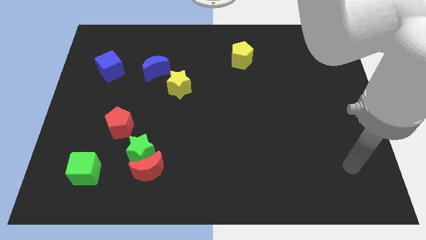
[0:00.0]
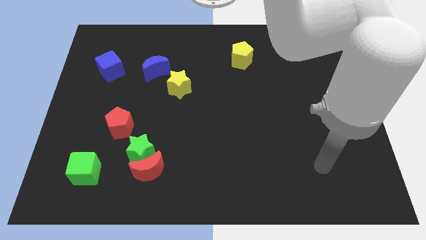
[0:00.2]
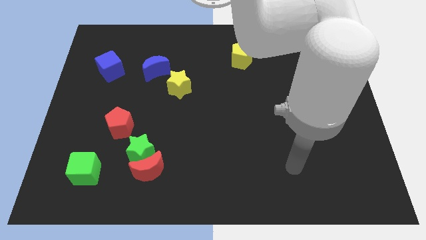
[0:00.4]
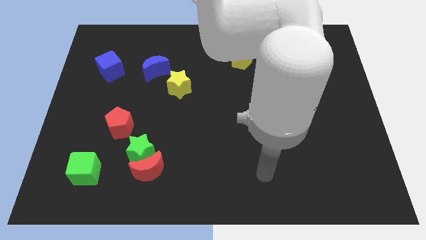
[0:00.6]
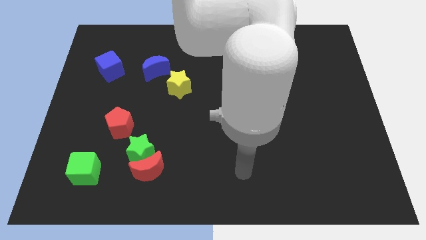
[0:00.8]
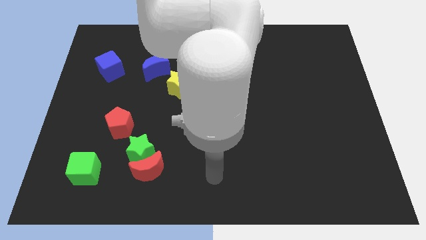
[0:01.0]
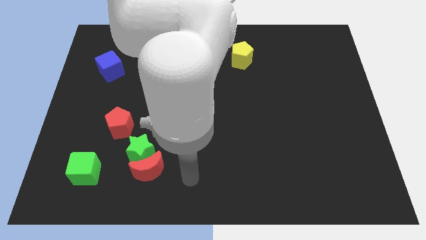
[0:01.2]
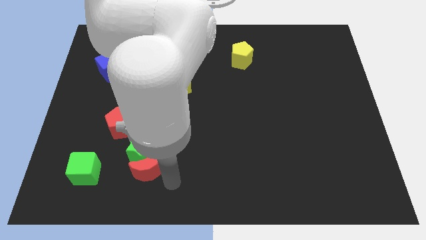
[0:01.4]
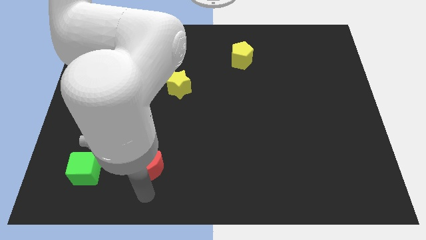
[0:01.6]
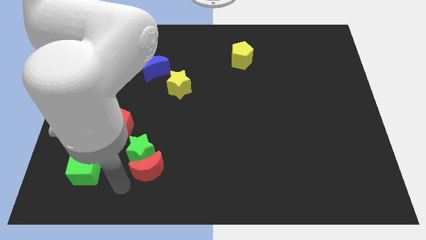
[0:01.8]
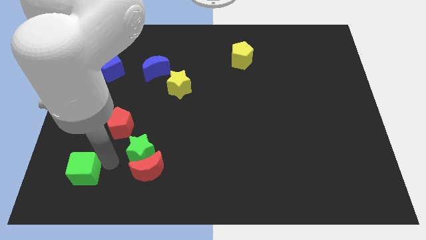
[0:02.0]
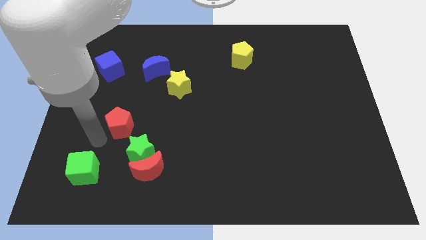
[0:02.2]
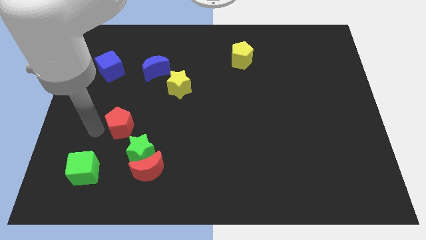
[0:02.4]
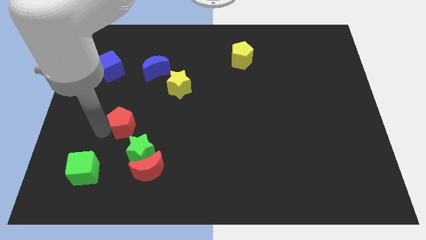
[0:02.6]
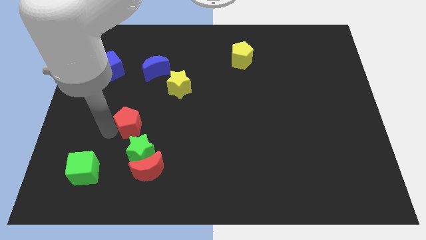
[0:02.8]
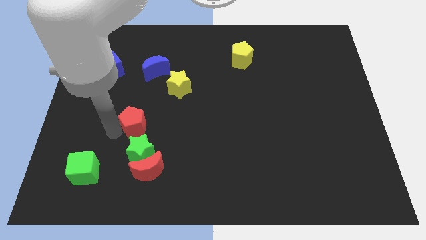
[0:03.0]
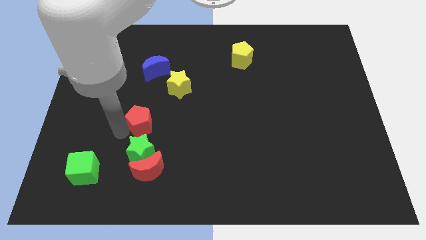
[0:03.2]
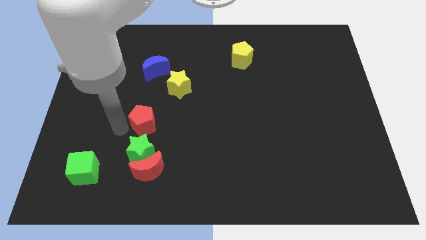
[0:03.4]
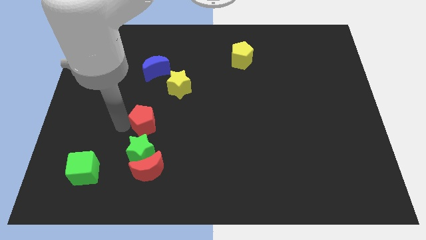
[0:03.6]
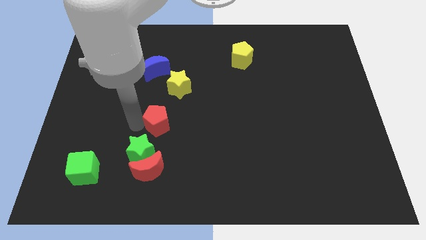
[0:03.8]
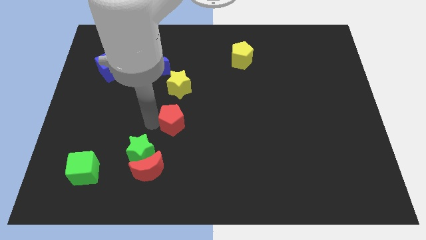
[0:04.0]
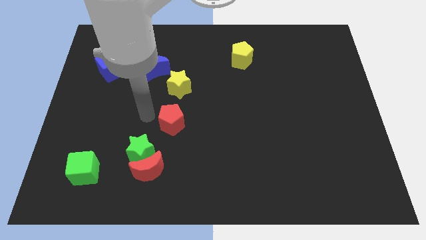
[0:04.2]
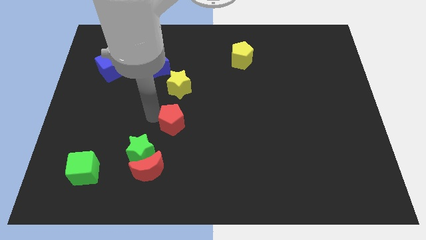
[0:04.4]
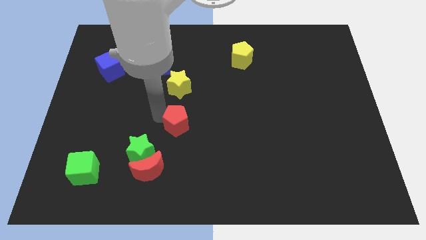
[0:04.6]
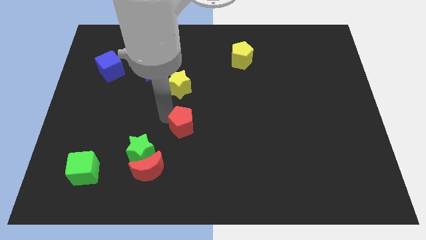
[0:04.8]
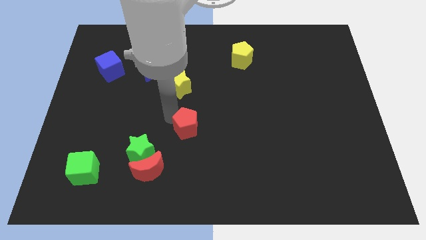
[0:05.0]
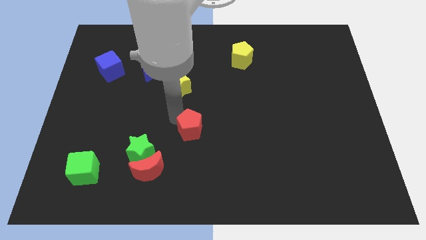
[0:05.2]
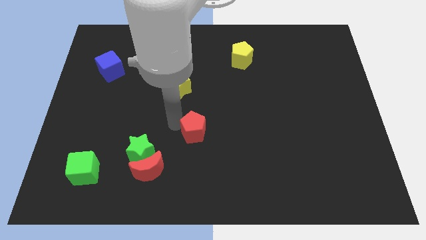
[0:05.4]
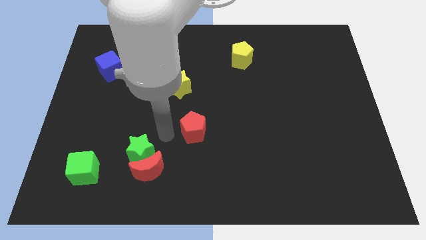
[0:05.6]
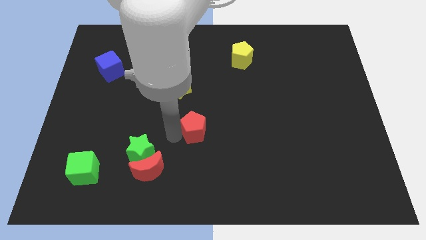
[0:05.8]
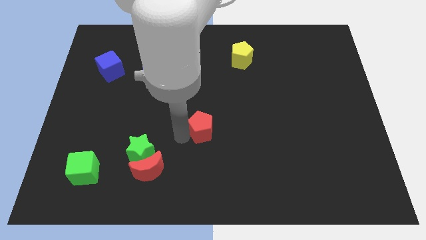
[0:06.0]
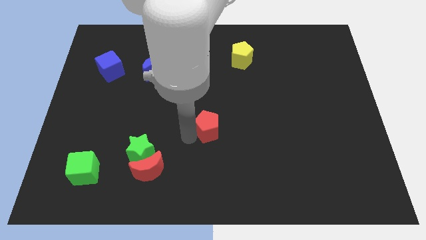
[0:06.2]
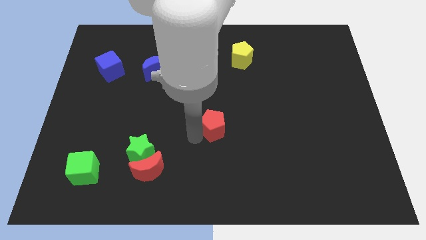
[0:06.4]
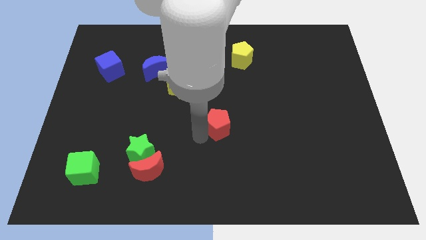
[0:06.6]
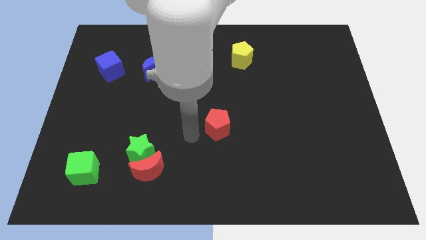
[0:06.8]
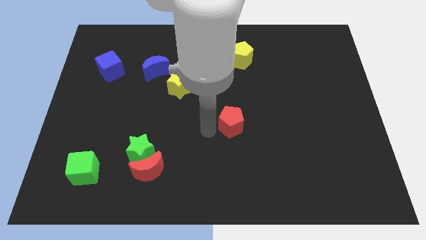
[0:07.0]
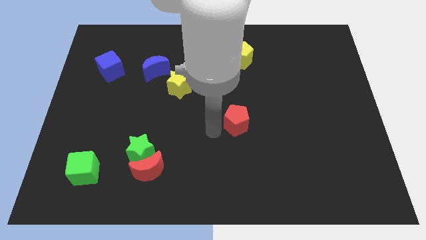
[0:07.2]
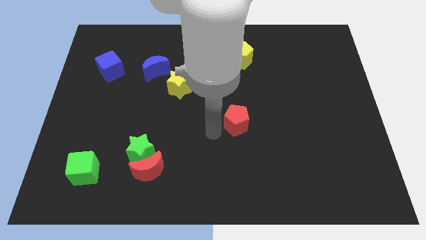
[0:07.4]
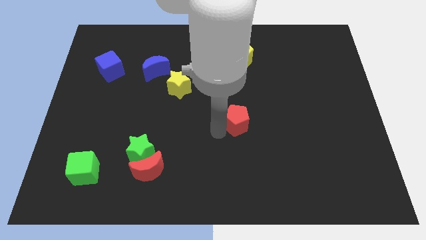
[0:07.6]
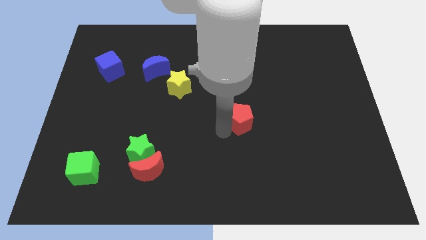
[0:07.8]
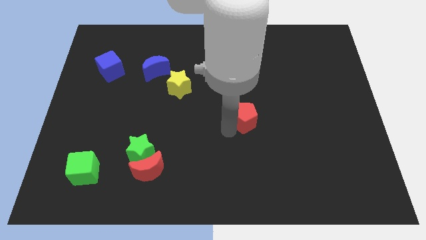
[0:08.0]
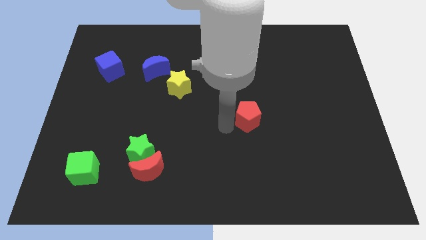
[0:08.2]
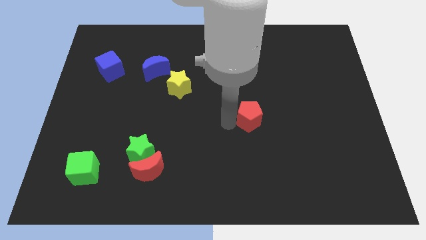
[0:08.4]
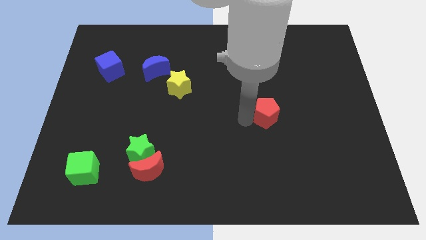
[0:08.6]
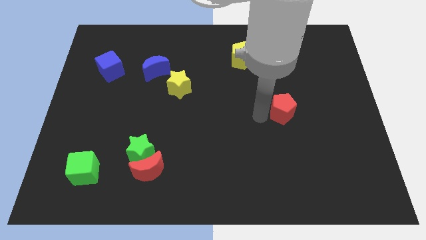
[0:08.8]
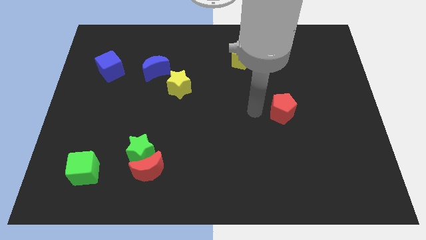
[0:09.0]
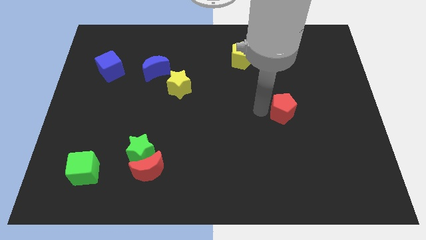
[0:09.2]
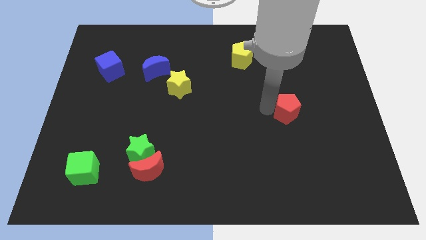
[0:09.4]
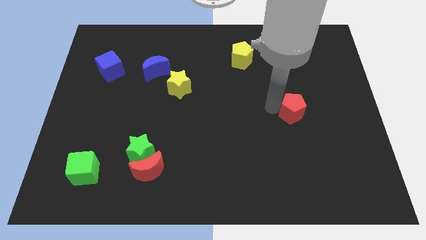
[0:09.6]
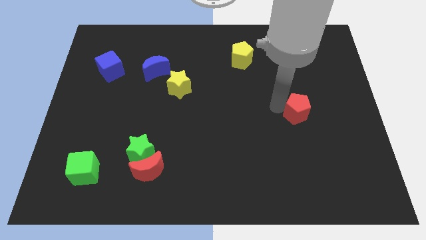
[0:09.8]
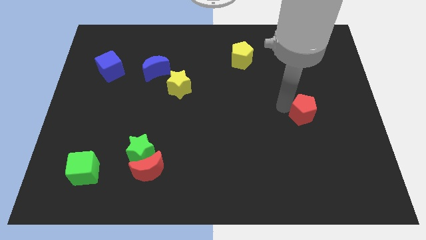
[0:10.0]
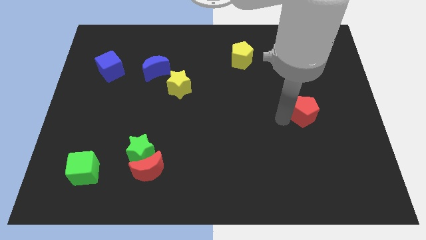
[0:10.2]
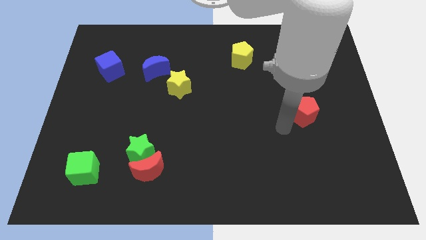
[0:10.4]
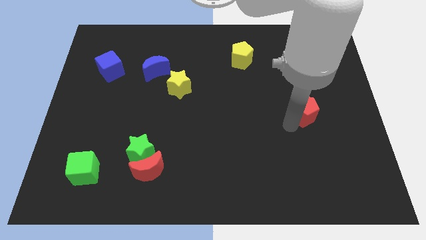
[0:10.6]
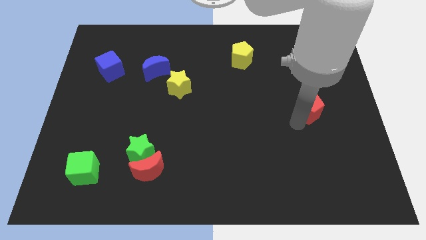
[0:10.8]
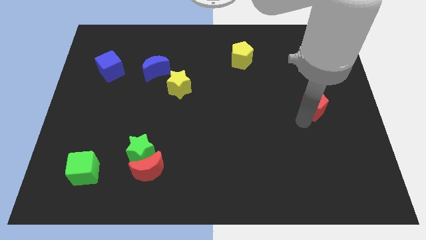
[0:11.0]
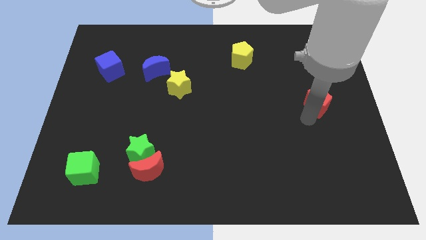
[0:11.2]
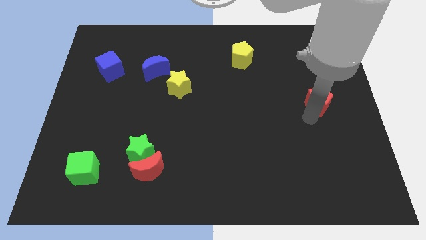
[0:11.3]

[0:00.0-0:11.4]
put the red pentagon to the right side of the board
